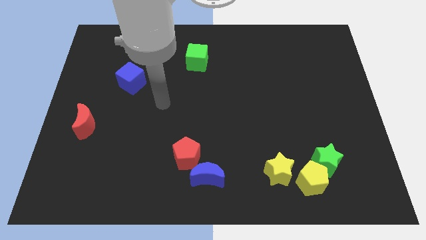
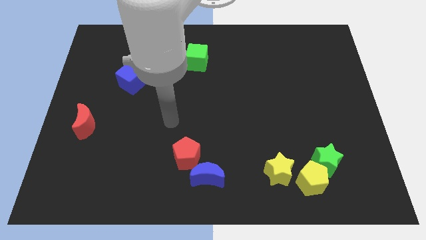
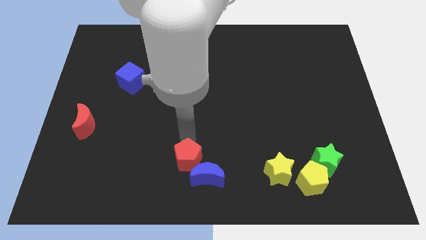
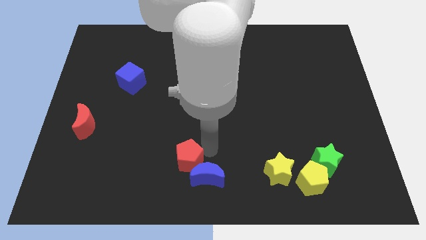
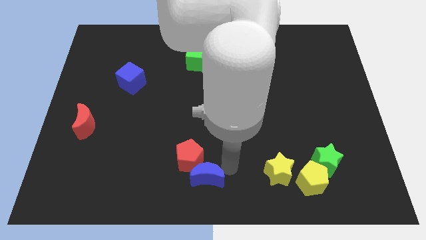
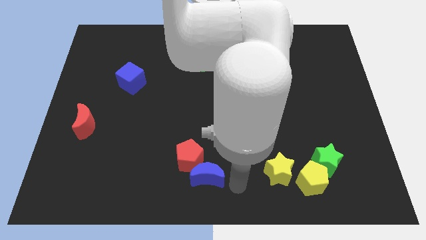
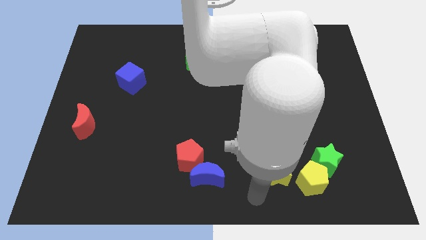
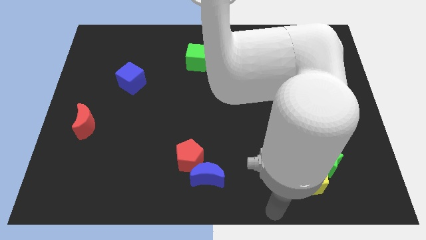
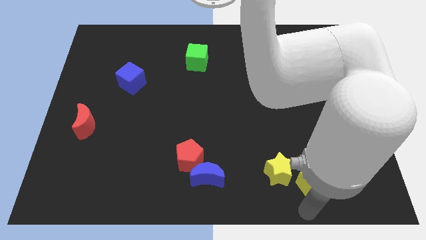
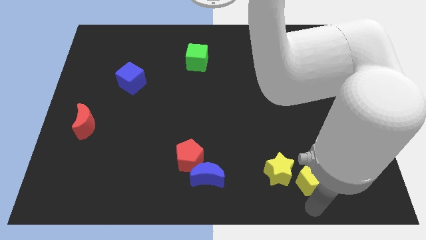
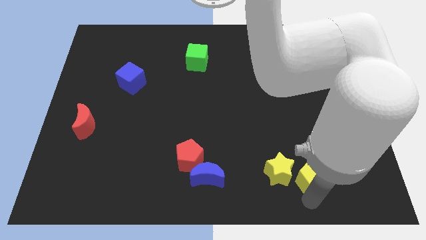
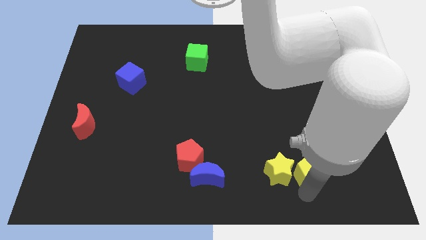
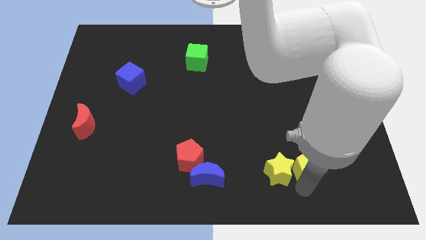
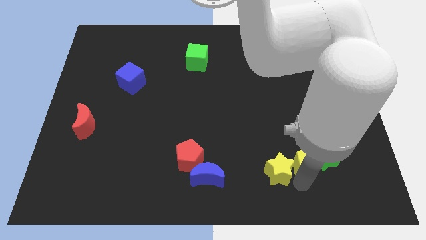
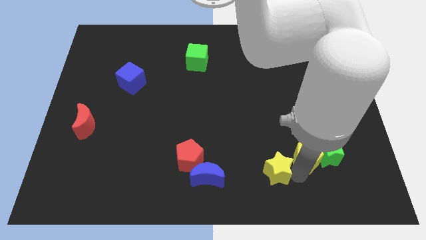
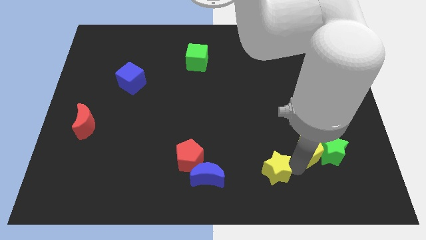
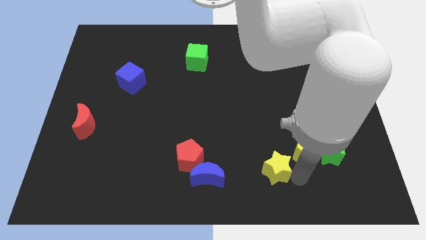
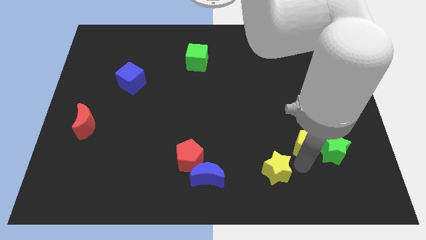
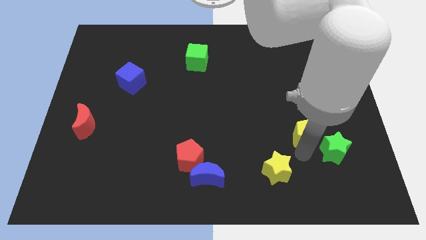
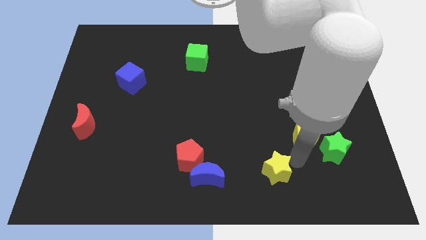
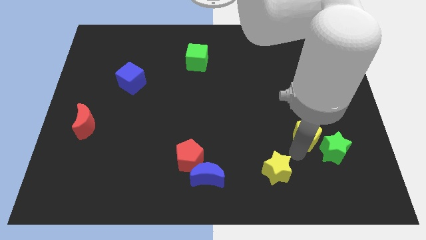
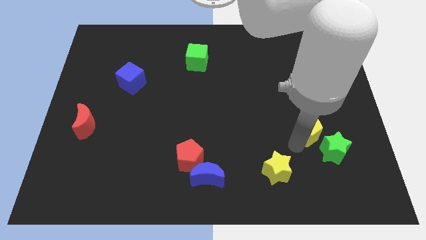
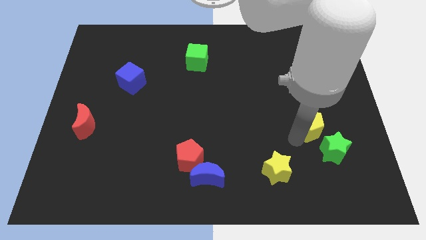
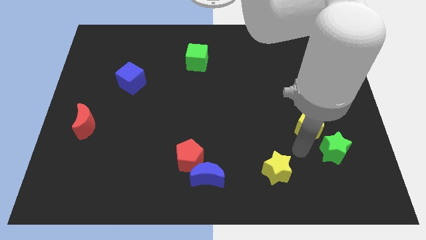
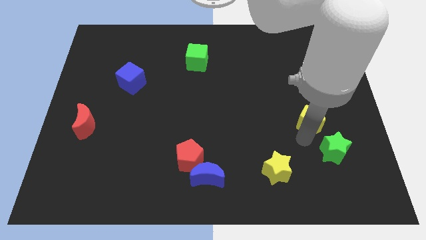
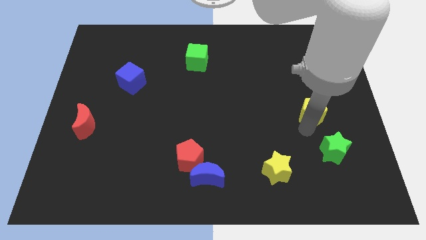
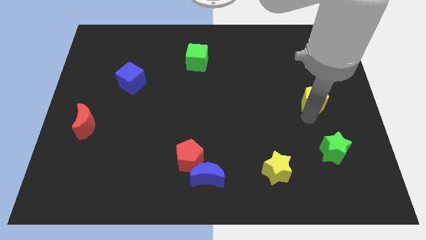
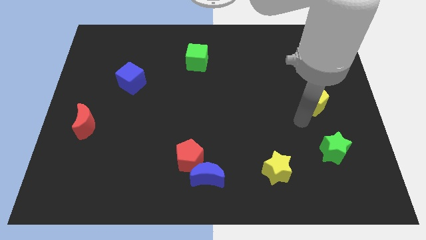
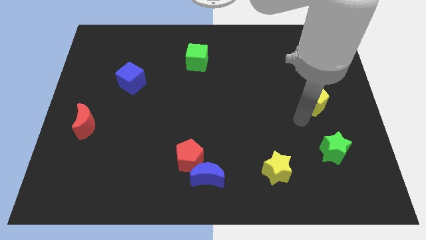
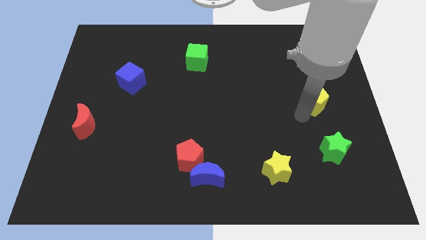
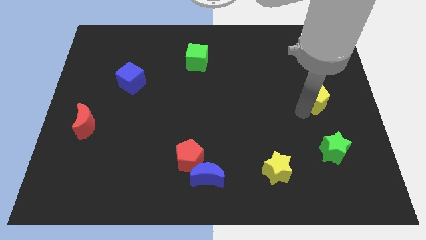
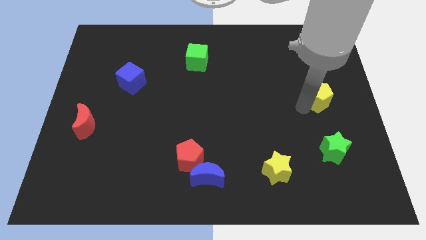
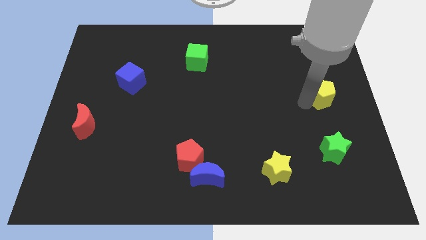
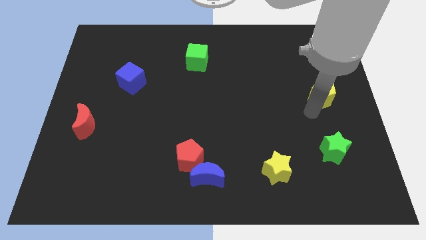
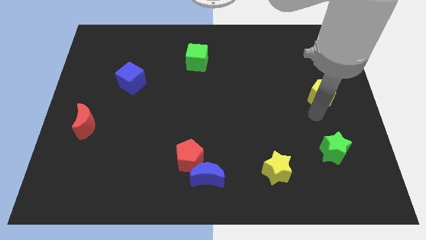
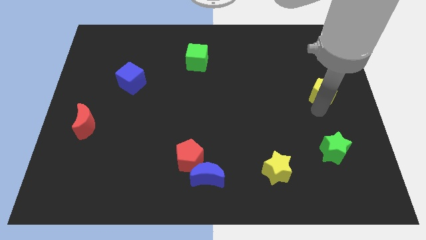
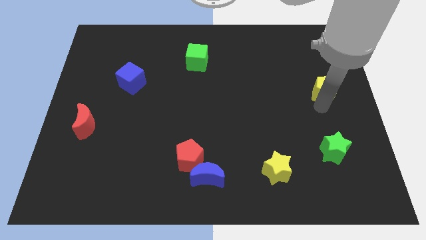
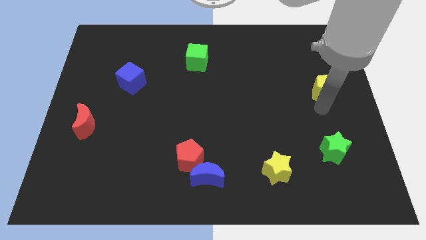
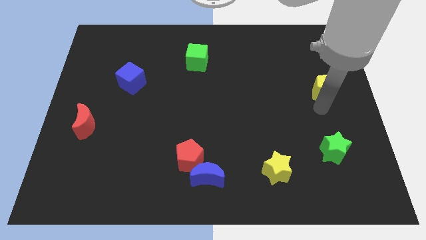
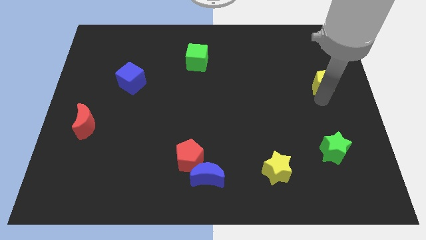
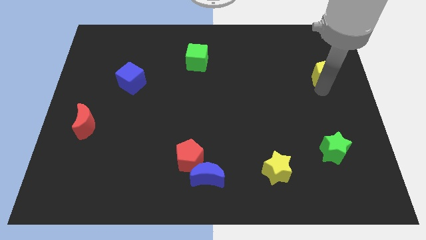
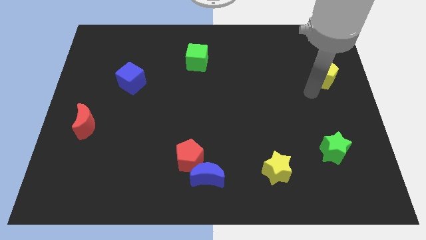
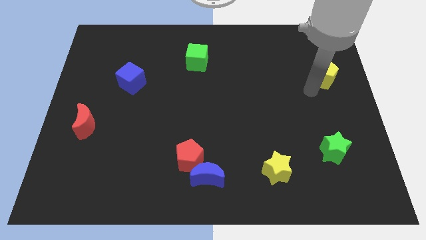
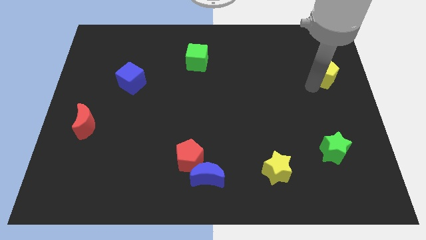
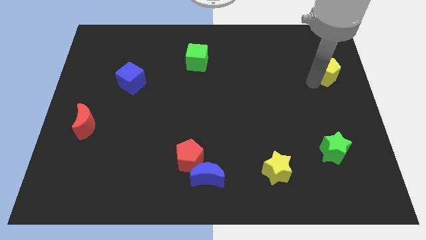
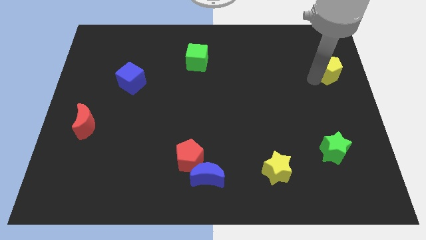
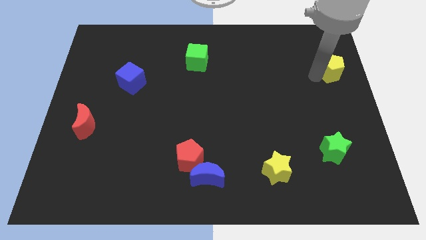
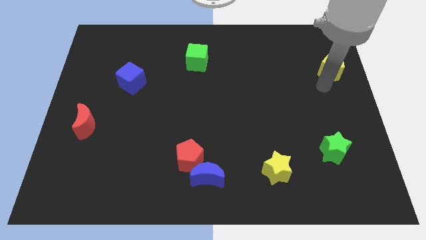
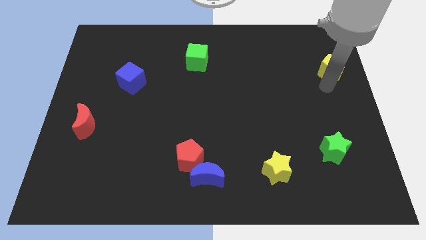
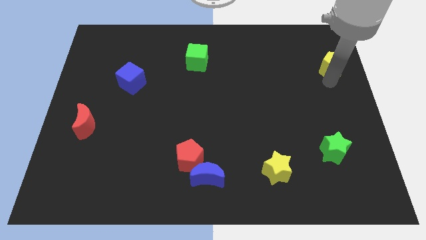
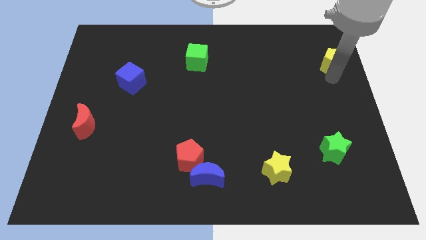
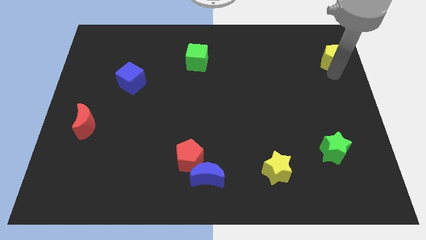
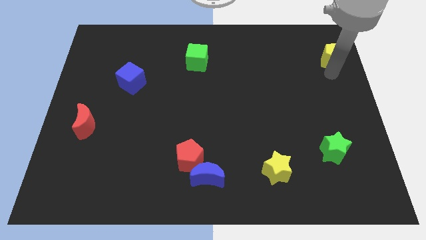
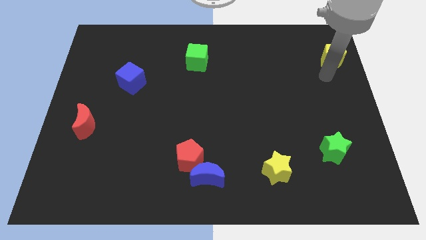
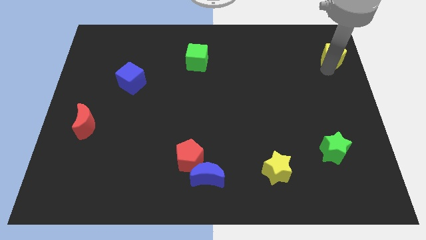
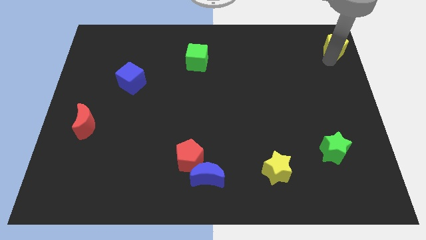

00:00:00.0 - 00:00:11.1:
push the yellow pentagon to the upper right corner

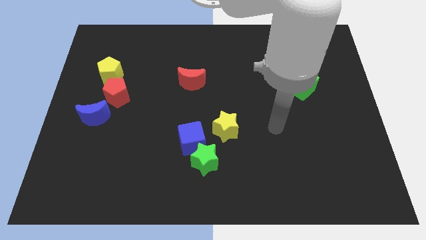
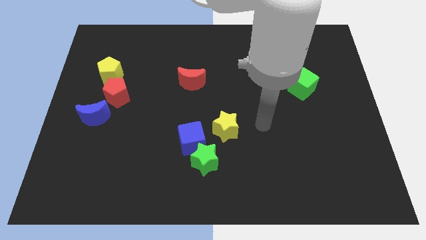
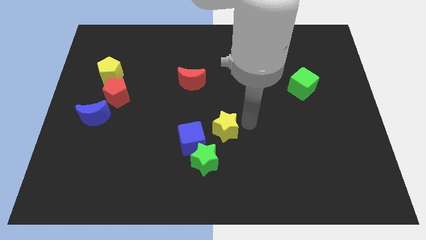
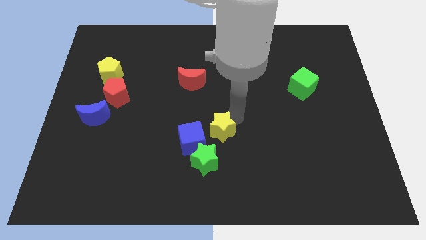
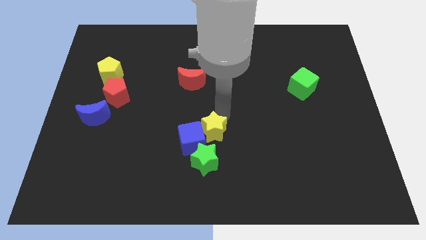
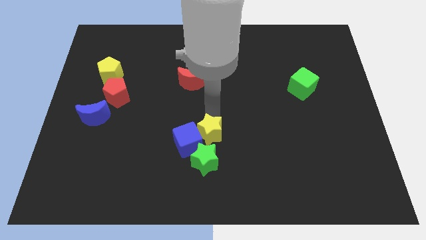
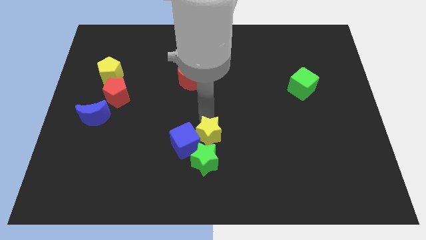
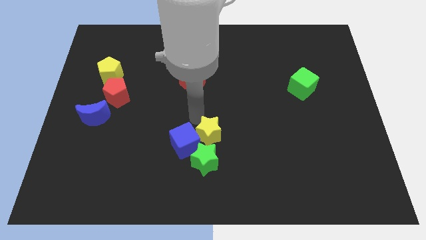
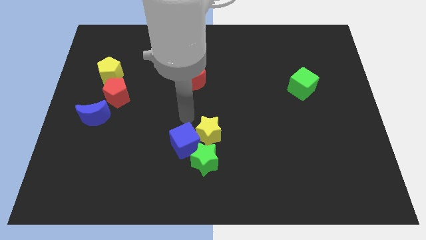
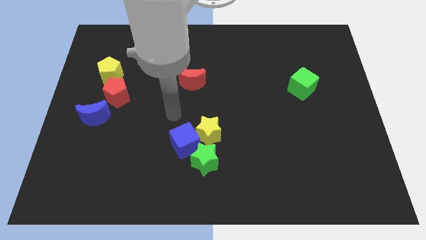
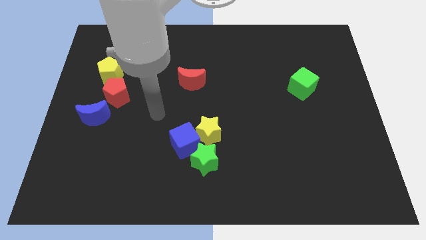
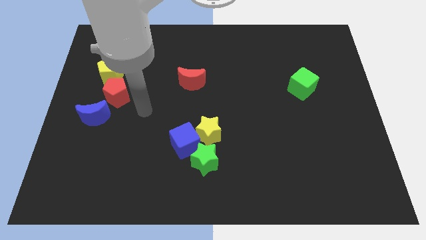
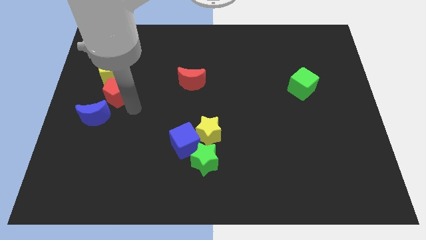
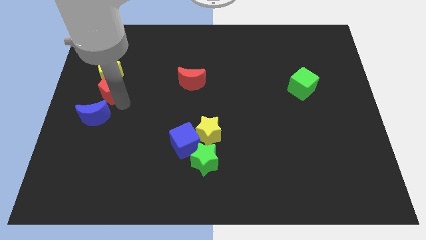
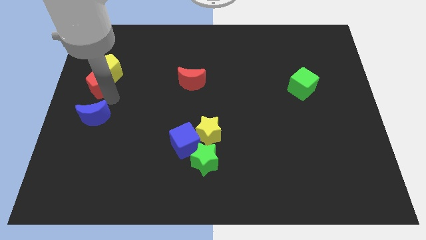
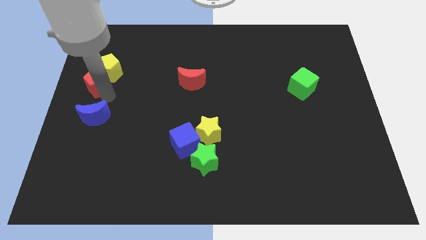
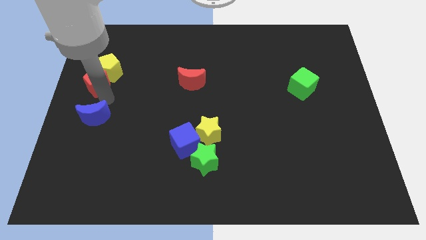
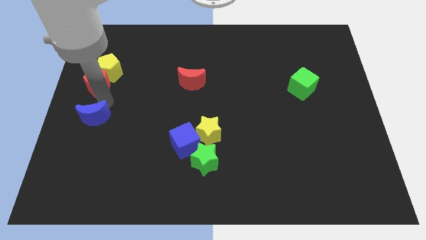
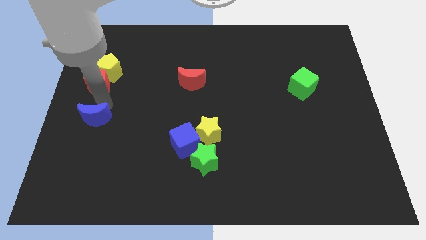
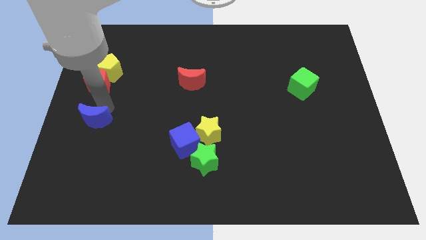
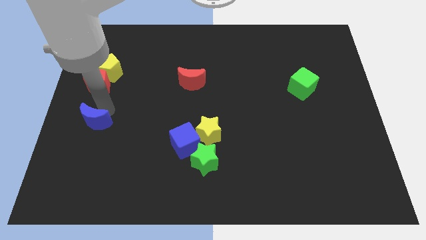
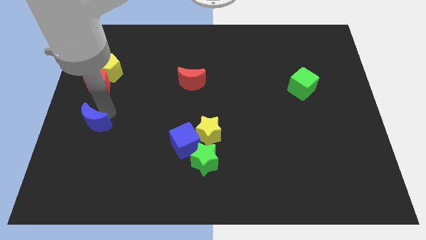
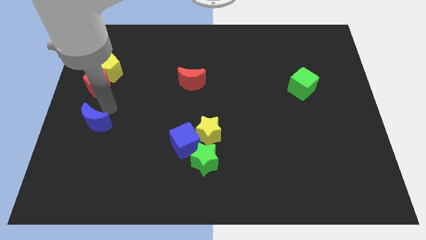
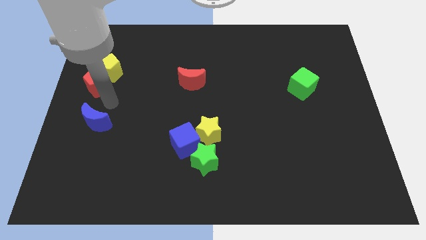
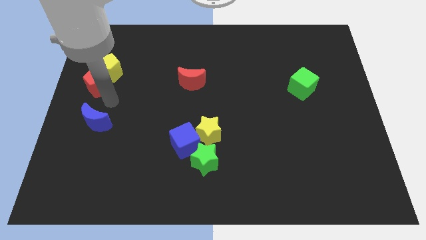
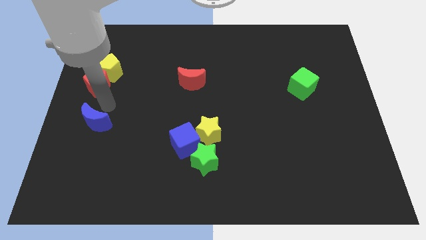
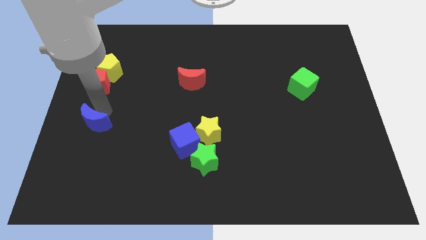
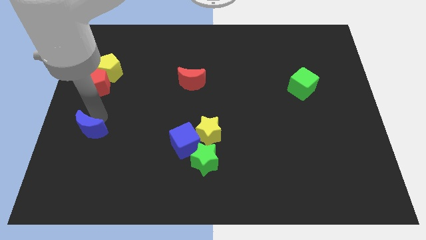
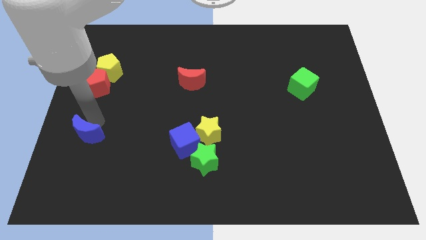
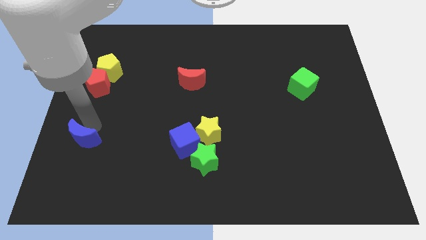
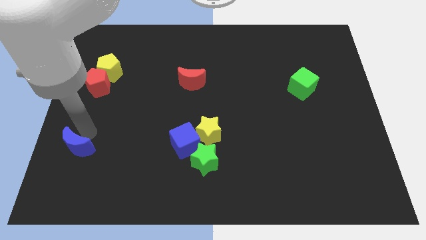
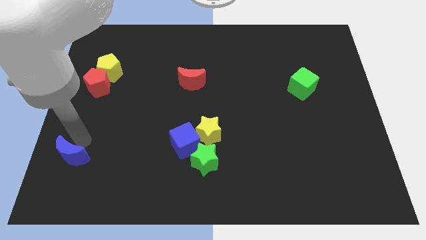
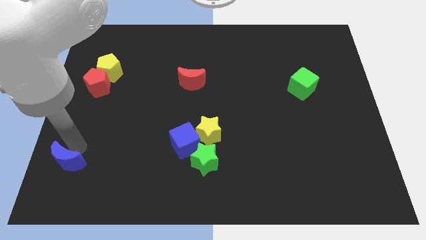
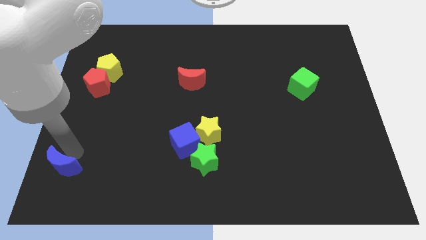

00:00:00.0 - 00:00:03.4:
push the blue moon to the lower left corner
